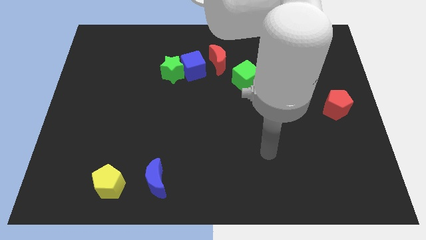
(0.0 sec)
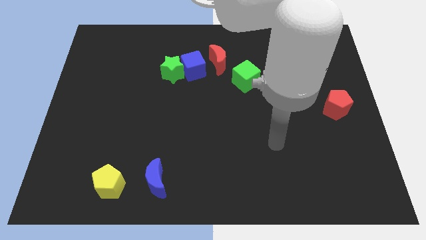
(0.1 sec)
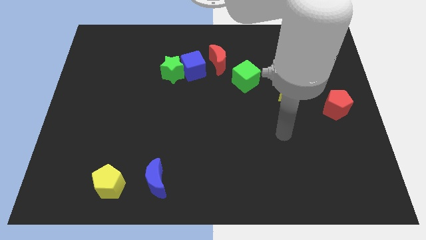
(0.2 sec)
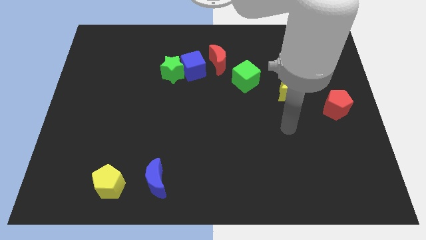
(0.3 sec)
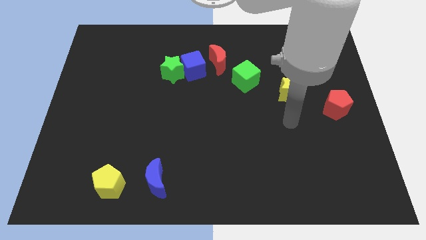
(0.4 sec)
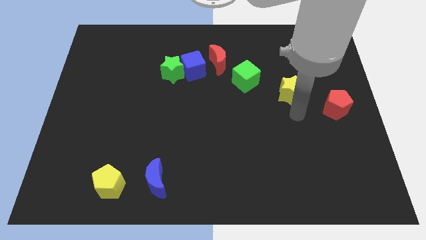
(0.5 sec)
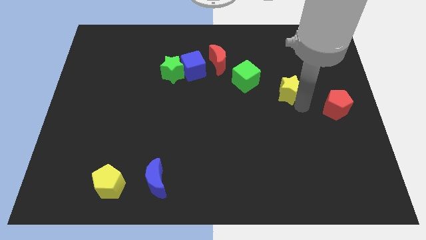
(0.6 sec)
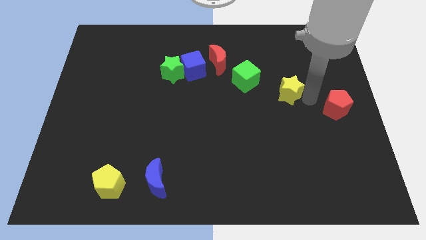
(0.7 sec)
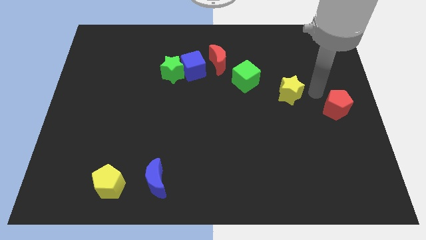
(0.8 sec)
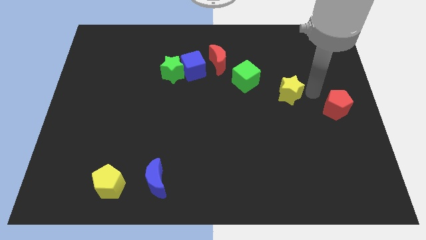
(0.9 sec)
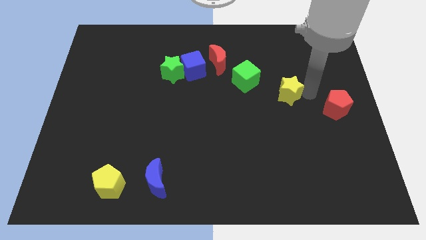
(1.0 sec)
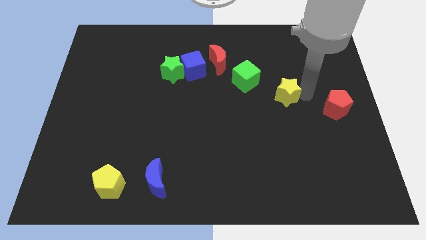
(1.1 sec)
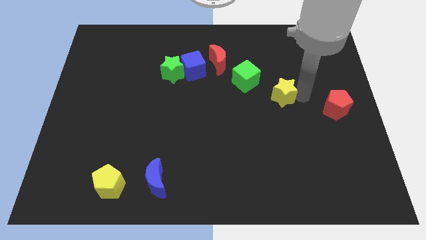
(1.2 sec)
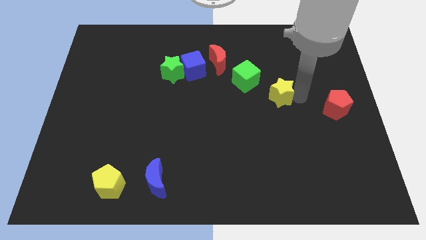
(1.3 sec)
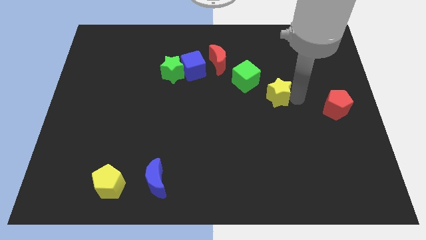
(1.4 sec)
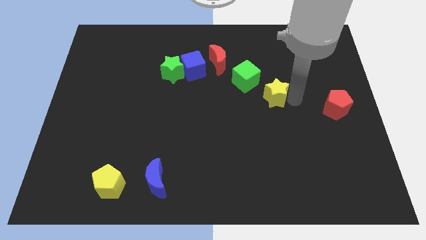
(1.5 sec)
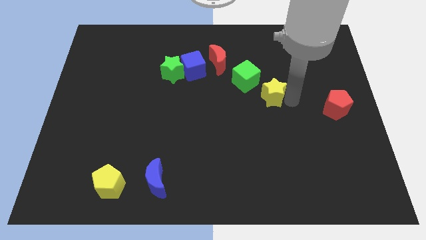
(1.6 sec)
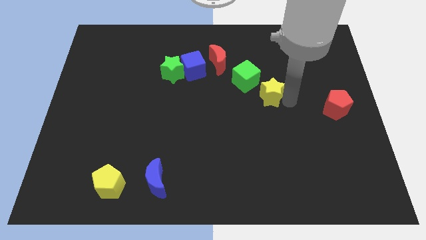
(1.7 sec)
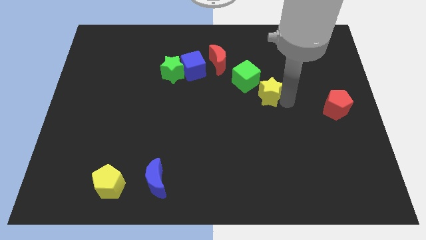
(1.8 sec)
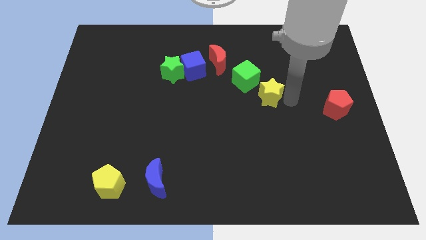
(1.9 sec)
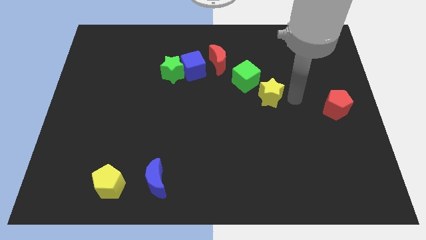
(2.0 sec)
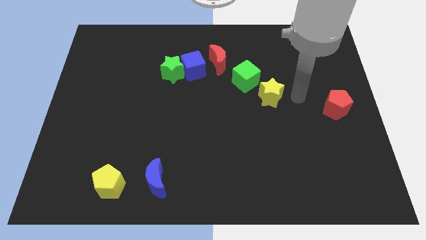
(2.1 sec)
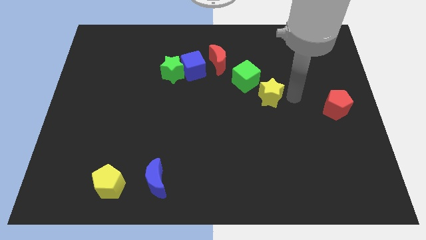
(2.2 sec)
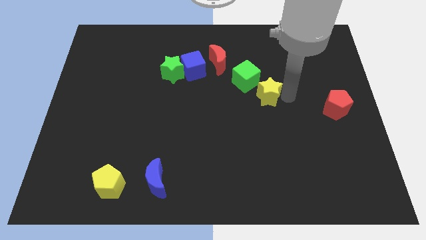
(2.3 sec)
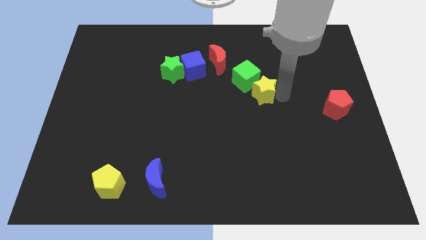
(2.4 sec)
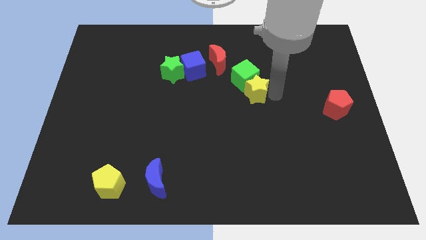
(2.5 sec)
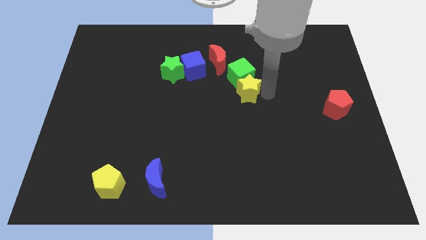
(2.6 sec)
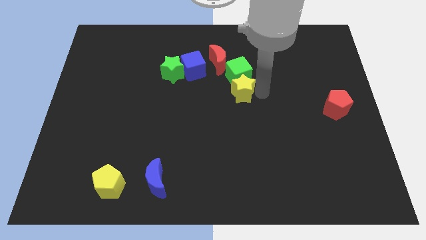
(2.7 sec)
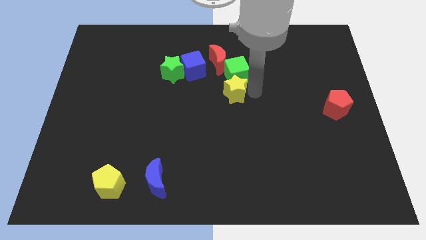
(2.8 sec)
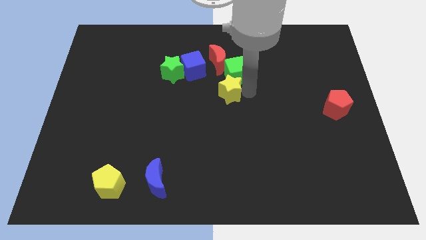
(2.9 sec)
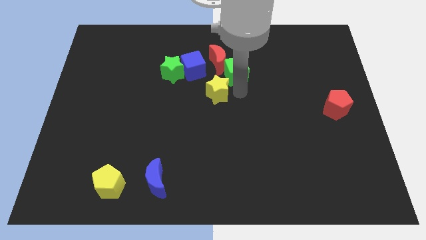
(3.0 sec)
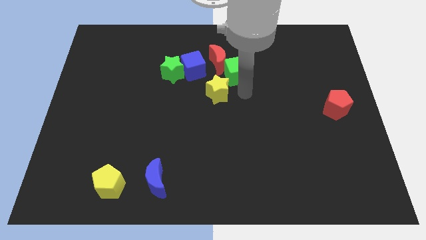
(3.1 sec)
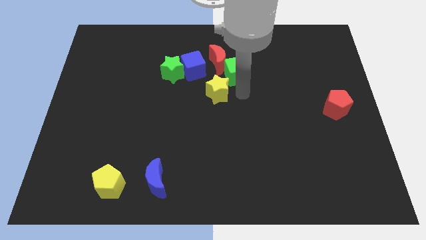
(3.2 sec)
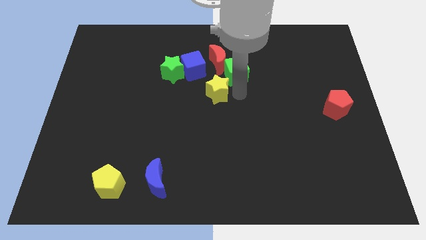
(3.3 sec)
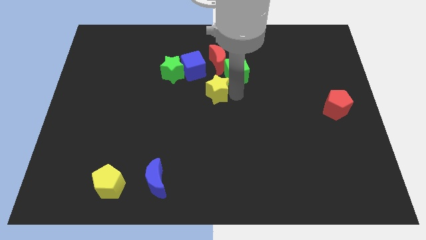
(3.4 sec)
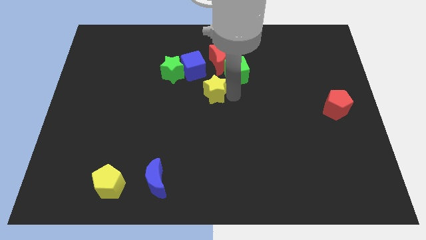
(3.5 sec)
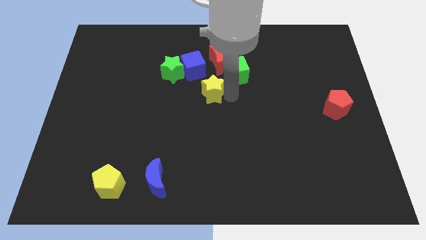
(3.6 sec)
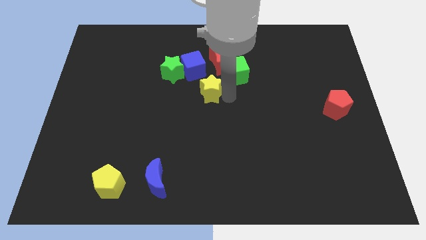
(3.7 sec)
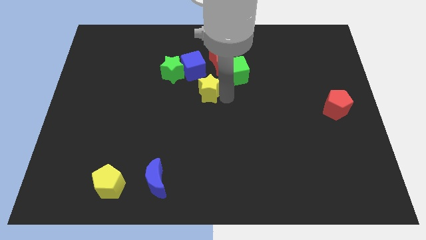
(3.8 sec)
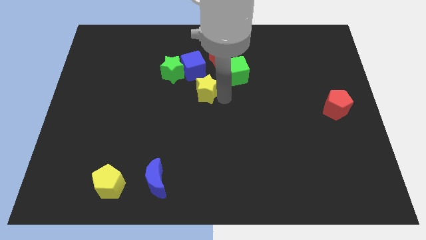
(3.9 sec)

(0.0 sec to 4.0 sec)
move the yellow star left

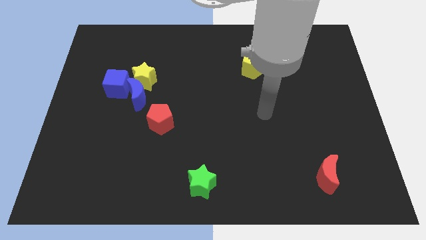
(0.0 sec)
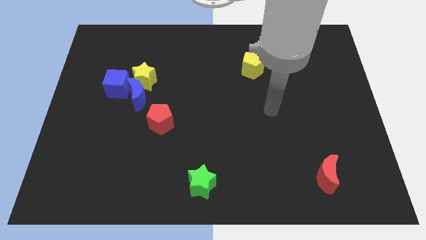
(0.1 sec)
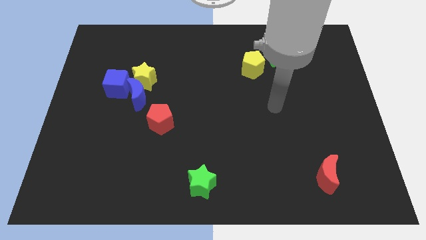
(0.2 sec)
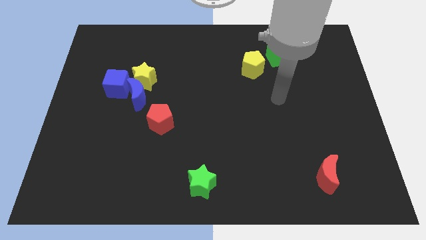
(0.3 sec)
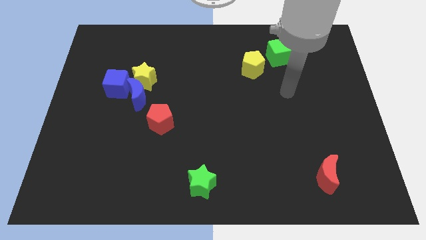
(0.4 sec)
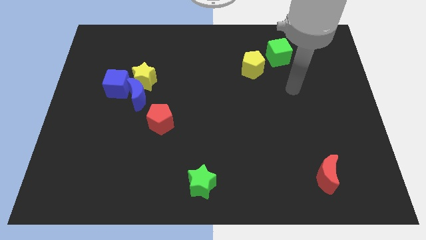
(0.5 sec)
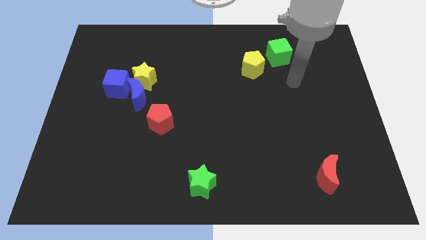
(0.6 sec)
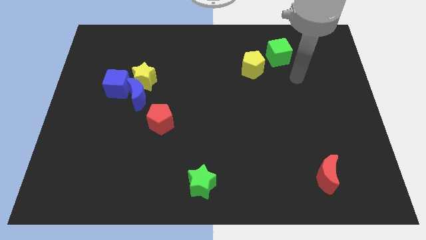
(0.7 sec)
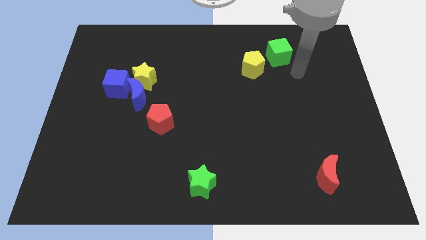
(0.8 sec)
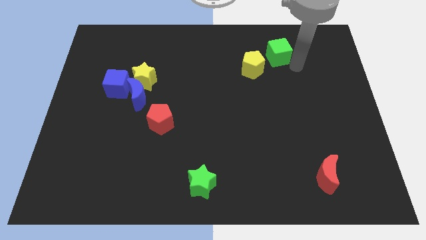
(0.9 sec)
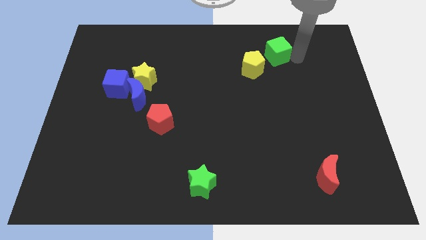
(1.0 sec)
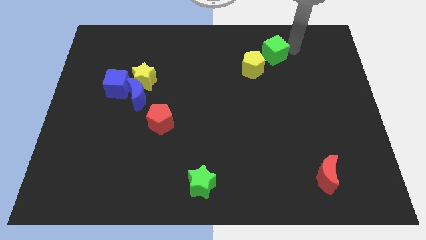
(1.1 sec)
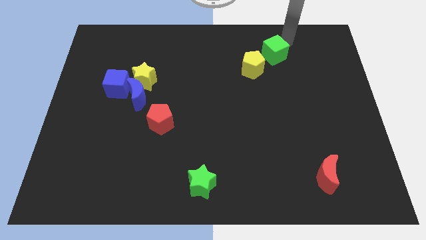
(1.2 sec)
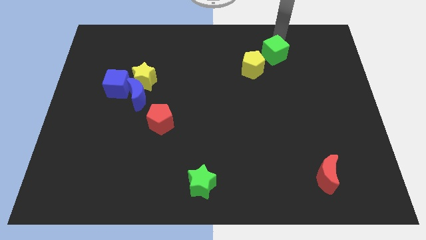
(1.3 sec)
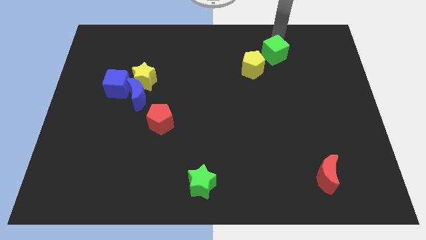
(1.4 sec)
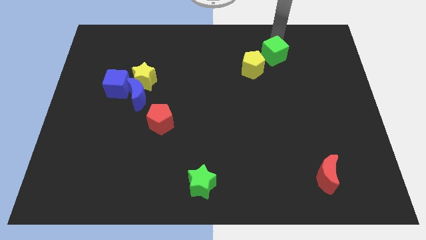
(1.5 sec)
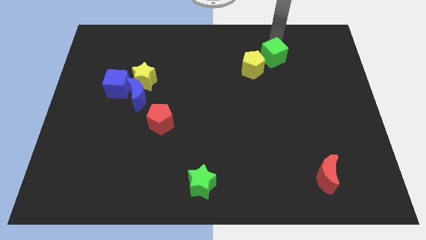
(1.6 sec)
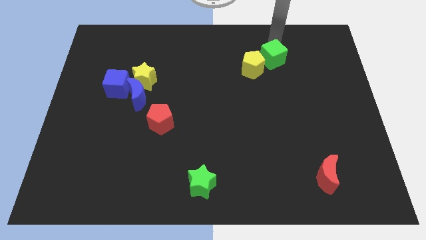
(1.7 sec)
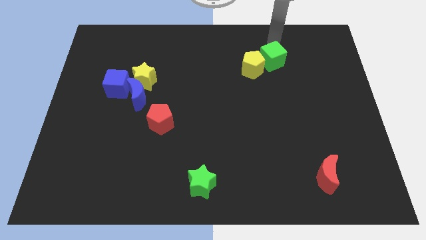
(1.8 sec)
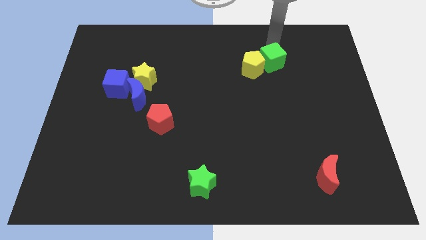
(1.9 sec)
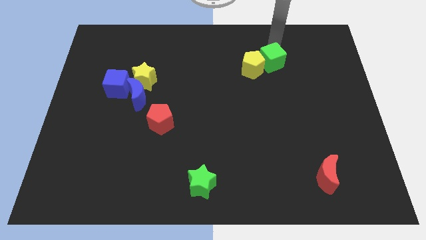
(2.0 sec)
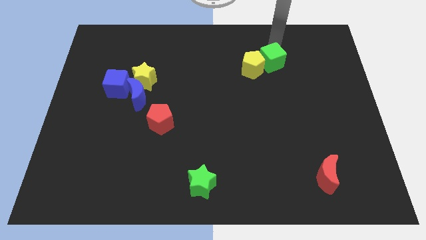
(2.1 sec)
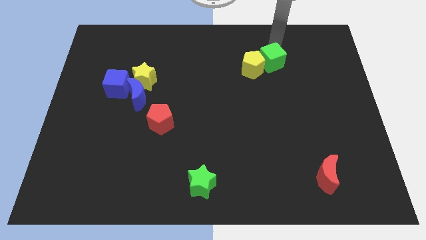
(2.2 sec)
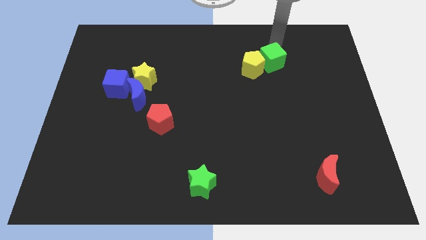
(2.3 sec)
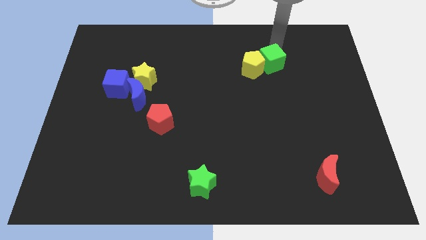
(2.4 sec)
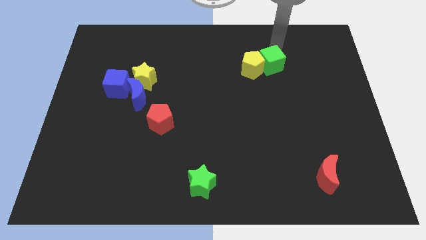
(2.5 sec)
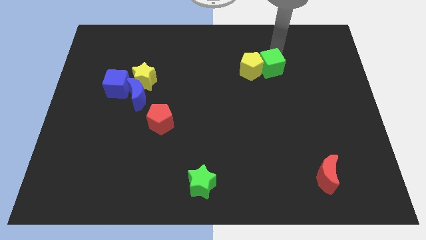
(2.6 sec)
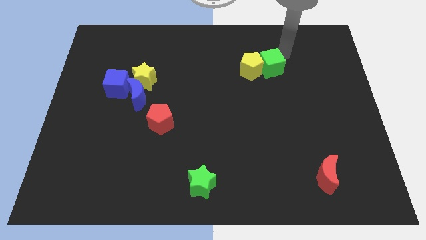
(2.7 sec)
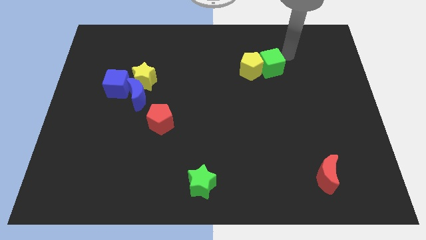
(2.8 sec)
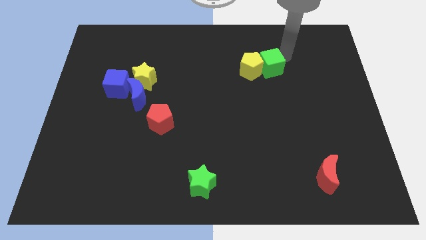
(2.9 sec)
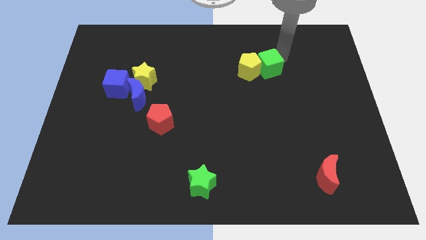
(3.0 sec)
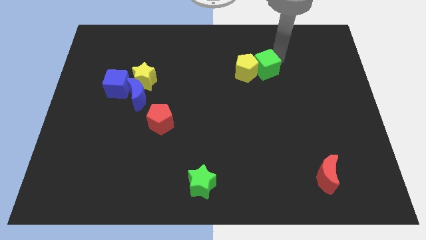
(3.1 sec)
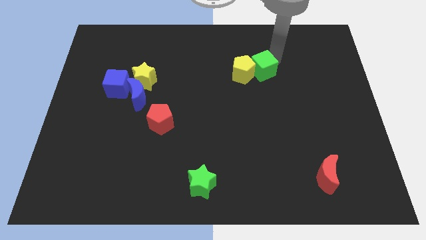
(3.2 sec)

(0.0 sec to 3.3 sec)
slide the green cube diagonally down and left somewhat

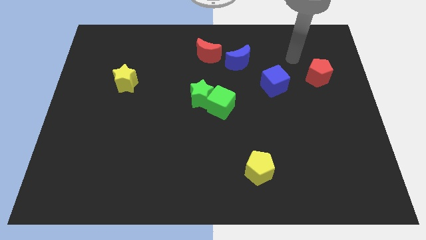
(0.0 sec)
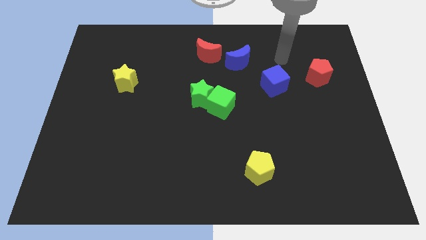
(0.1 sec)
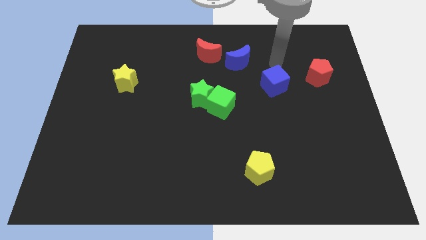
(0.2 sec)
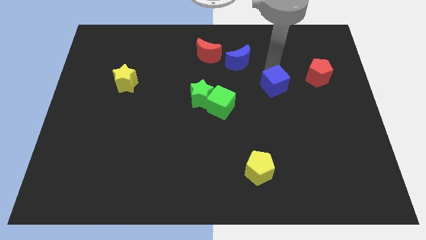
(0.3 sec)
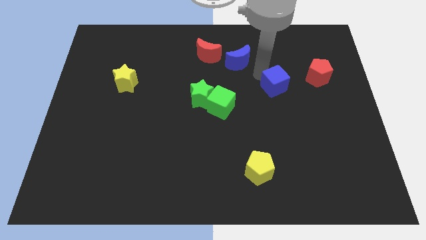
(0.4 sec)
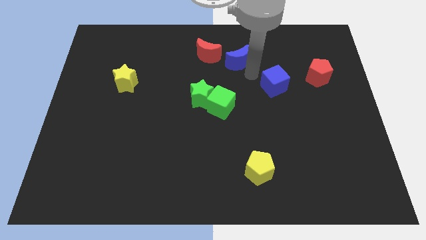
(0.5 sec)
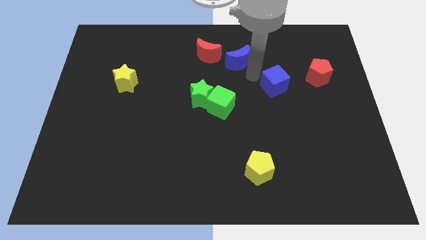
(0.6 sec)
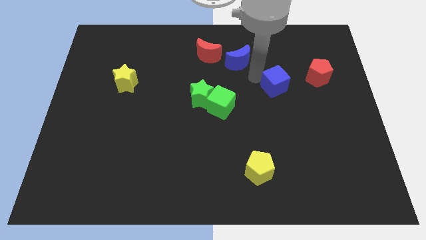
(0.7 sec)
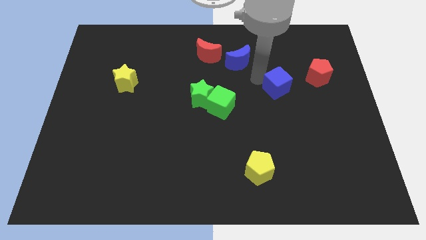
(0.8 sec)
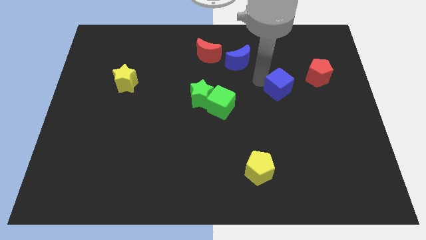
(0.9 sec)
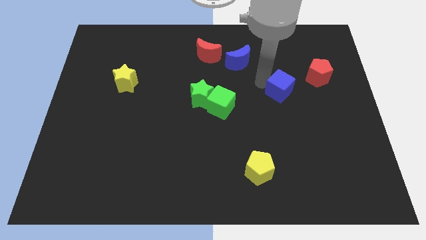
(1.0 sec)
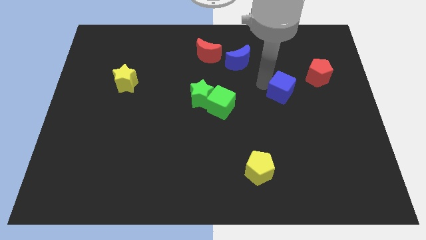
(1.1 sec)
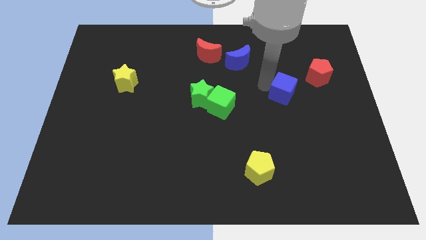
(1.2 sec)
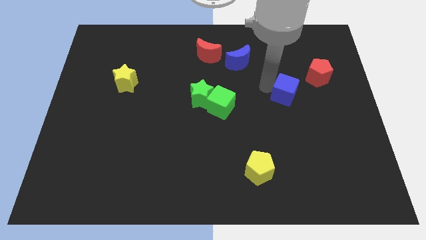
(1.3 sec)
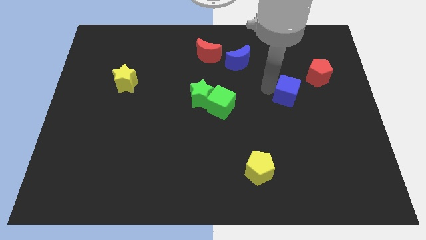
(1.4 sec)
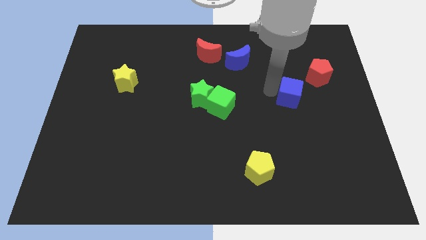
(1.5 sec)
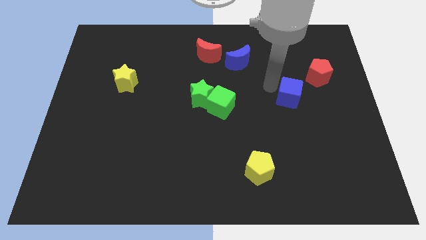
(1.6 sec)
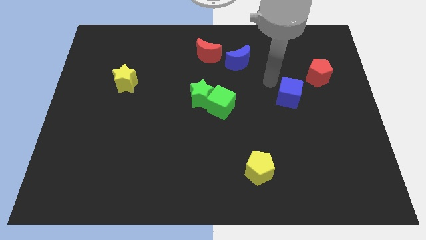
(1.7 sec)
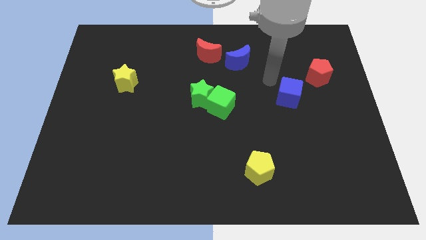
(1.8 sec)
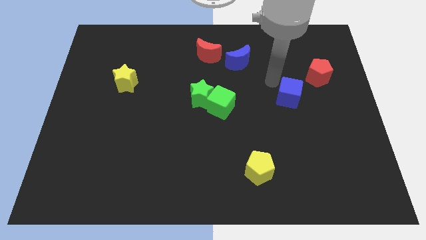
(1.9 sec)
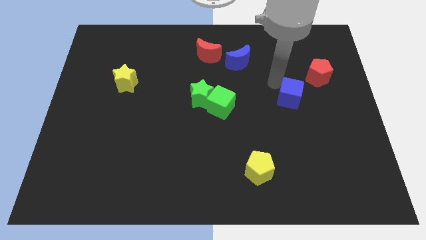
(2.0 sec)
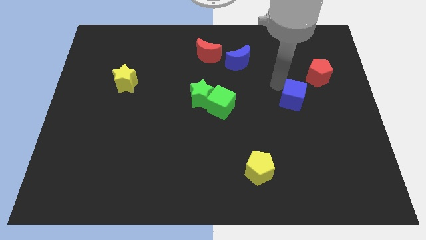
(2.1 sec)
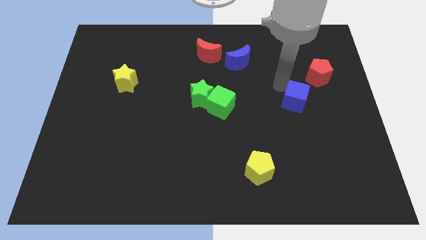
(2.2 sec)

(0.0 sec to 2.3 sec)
slightly slide the blue cube downwards and right
